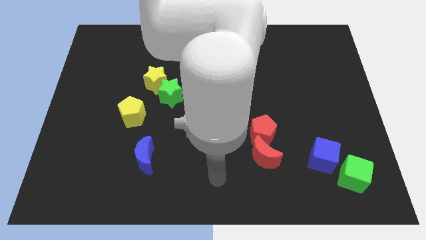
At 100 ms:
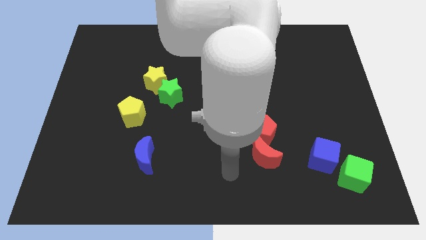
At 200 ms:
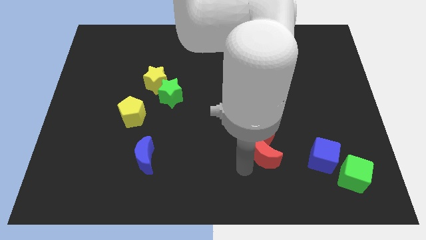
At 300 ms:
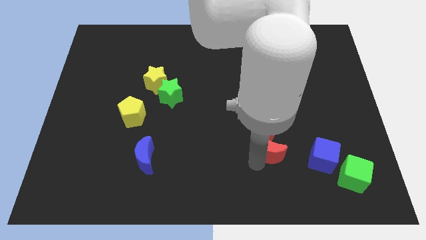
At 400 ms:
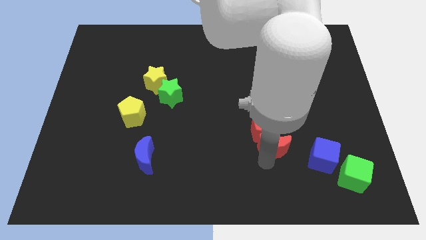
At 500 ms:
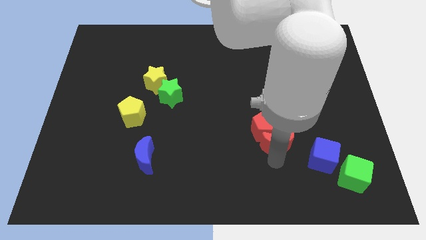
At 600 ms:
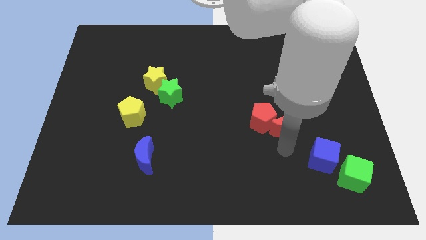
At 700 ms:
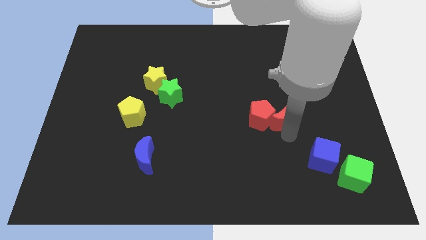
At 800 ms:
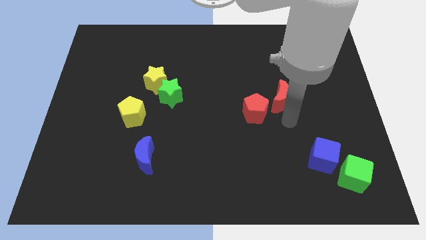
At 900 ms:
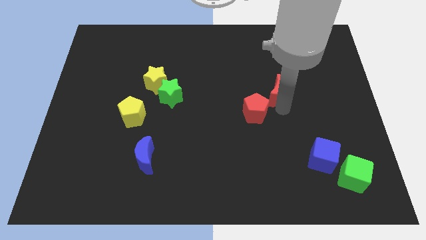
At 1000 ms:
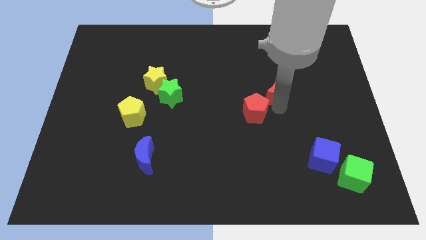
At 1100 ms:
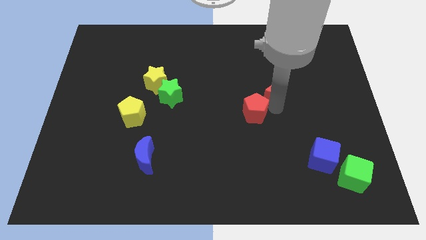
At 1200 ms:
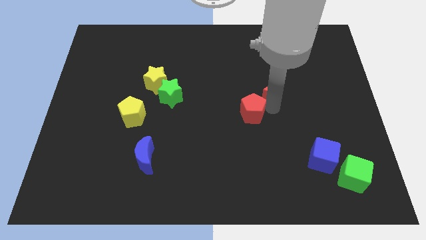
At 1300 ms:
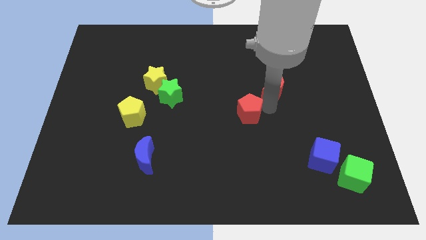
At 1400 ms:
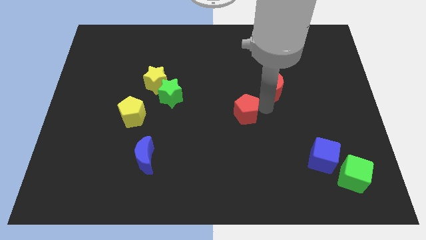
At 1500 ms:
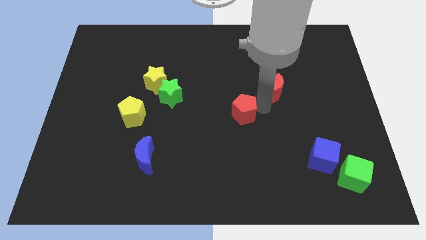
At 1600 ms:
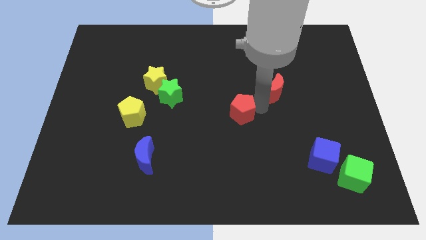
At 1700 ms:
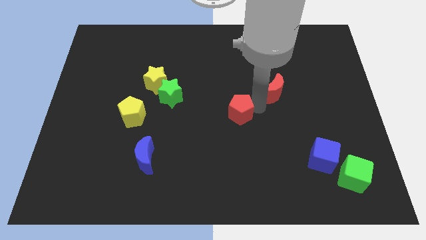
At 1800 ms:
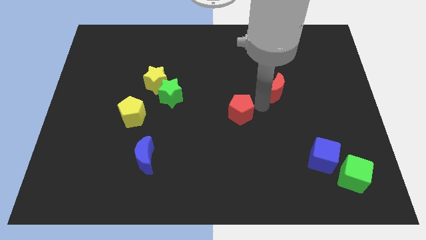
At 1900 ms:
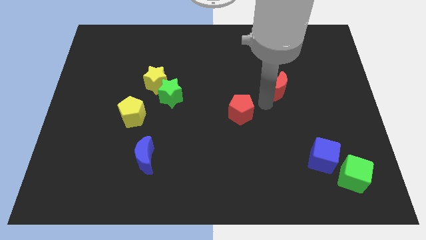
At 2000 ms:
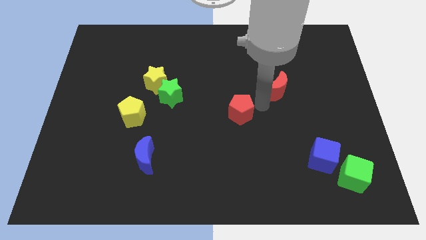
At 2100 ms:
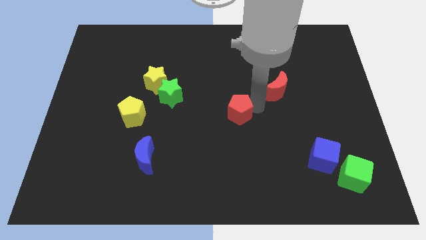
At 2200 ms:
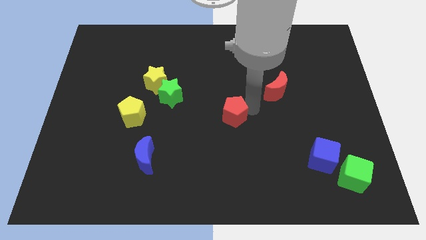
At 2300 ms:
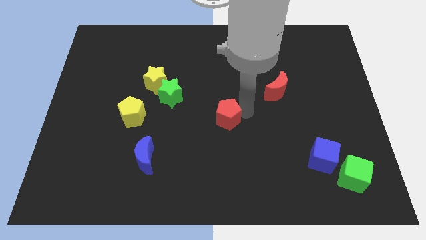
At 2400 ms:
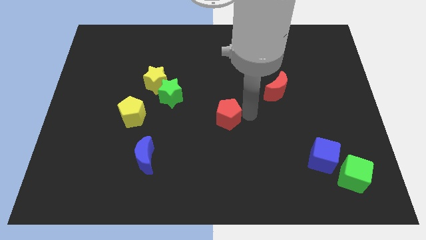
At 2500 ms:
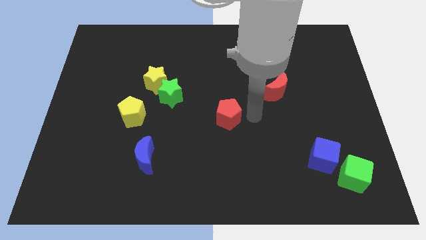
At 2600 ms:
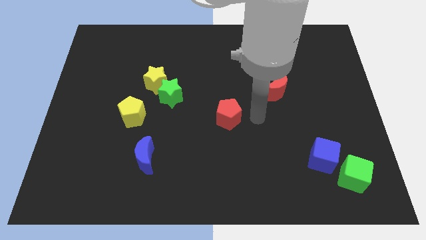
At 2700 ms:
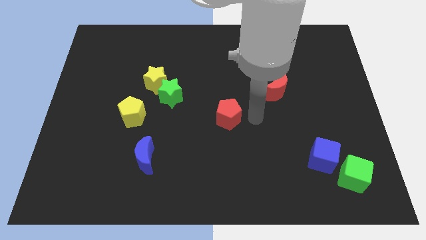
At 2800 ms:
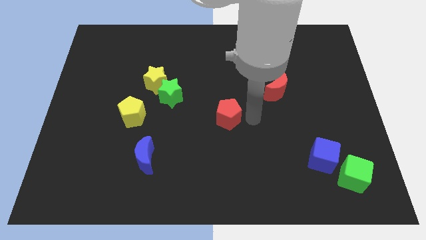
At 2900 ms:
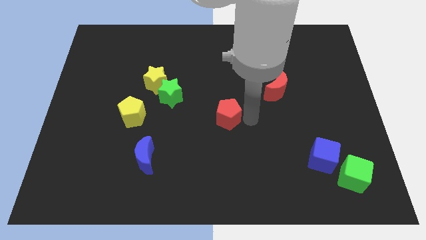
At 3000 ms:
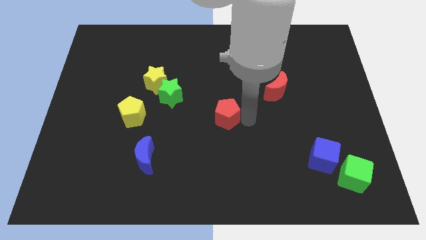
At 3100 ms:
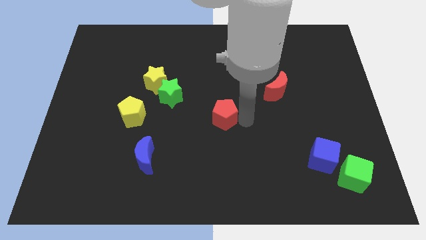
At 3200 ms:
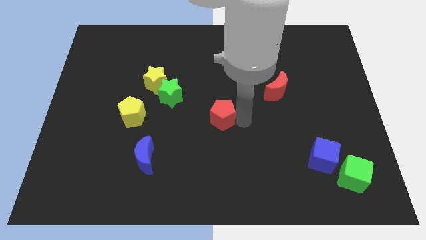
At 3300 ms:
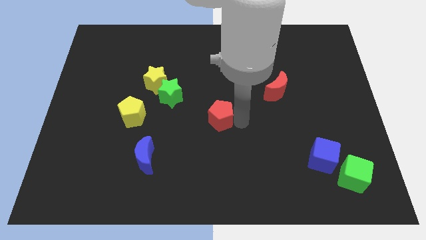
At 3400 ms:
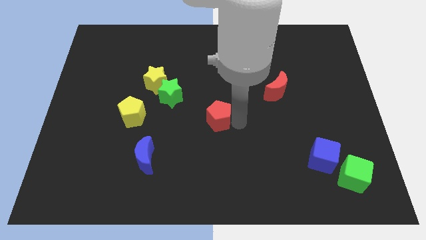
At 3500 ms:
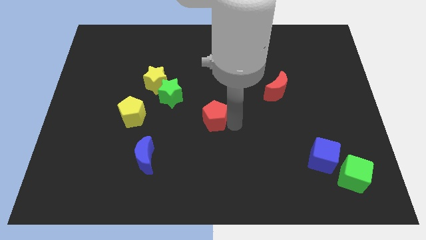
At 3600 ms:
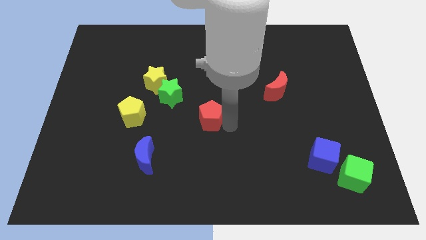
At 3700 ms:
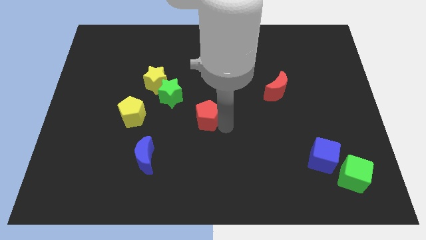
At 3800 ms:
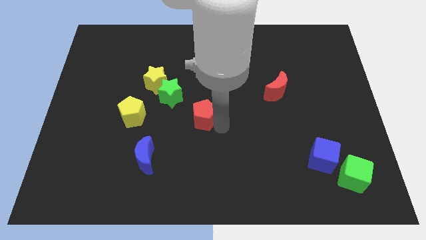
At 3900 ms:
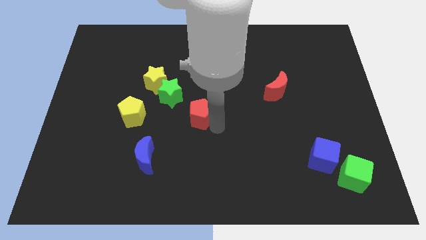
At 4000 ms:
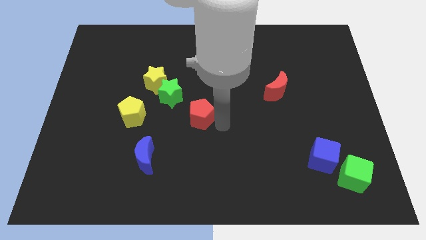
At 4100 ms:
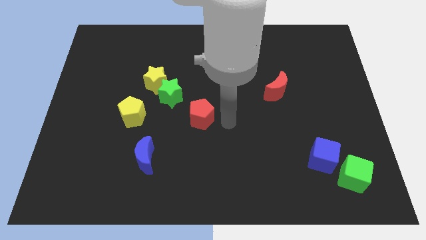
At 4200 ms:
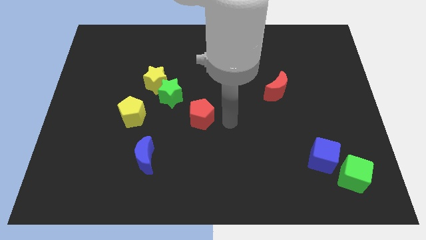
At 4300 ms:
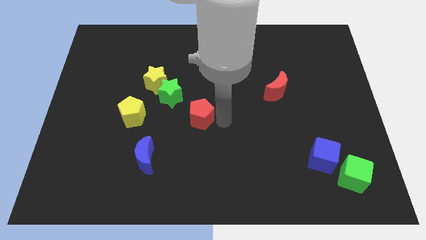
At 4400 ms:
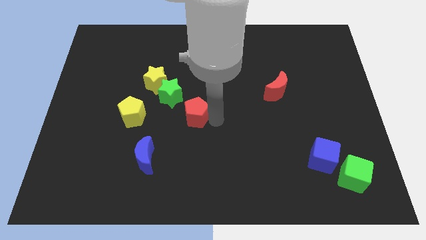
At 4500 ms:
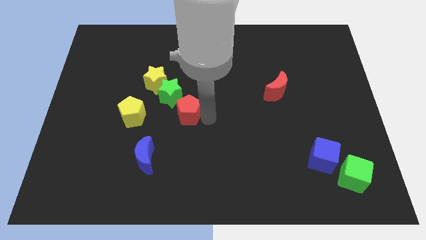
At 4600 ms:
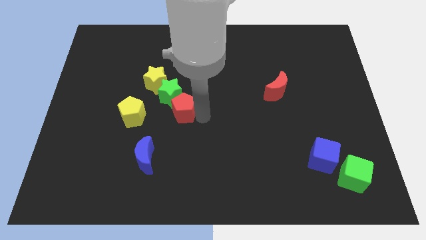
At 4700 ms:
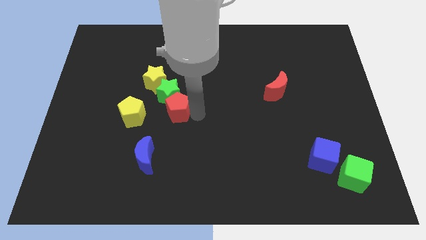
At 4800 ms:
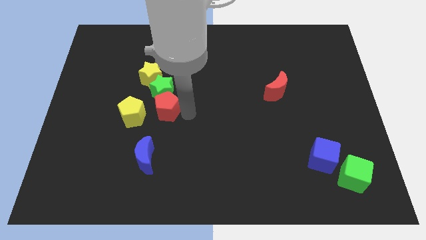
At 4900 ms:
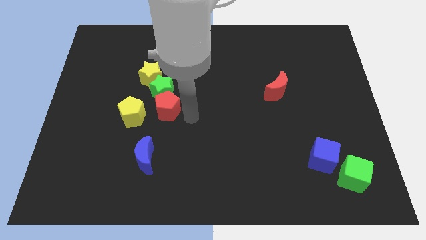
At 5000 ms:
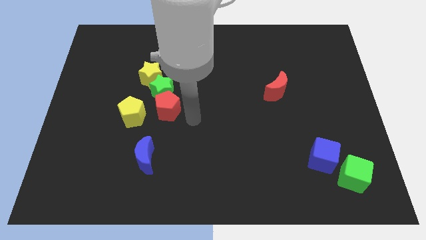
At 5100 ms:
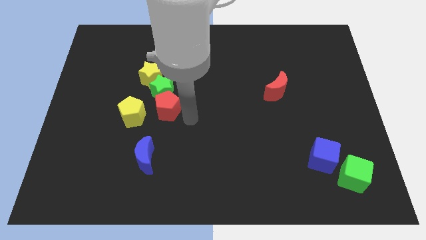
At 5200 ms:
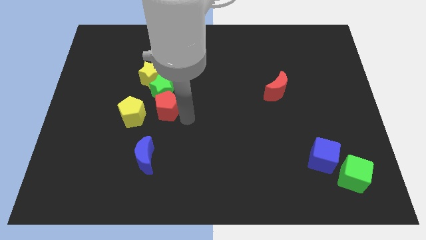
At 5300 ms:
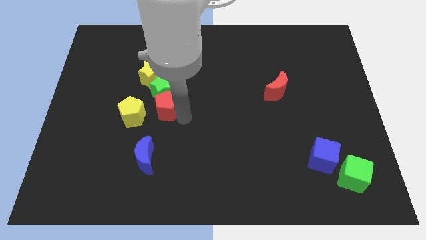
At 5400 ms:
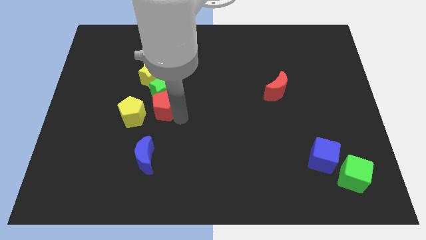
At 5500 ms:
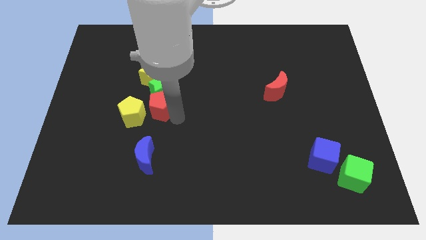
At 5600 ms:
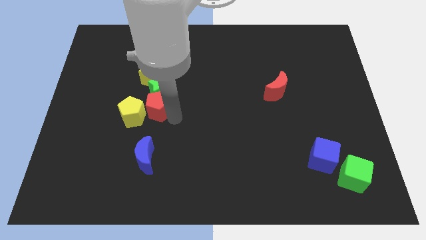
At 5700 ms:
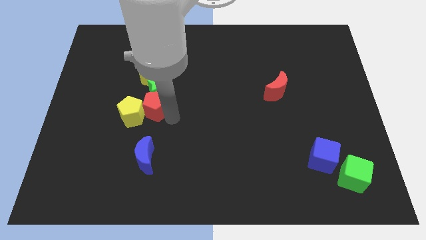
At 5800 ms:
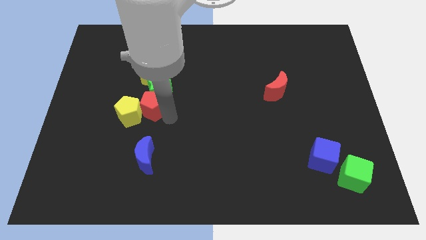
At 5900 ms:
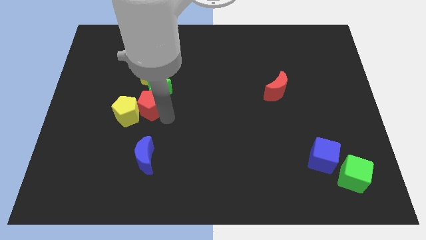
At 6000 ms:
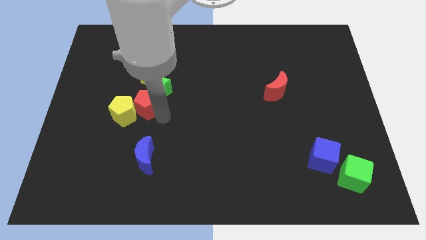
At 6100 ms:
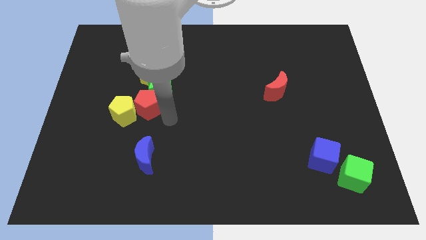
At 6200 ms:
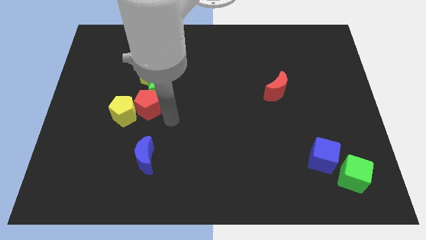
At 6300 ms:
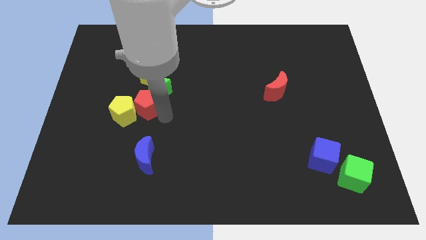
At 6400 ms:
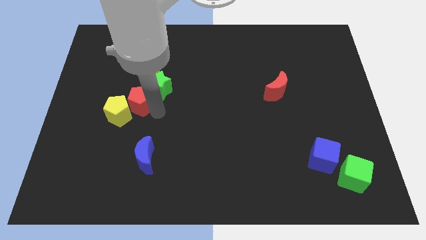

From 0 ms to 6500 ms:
slide the red pentagon to the left of the green star

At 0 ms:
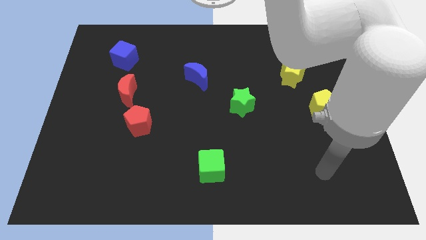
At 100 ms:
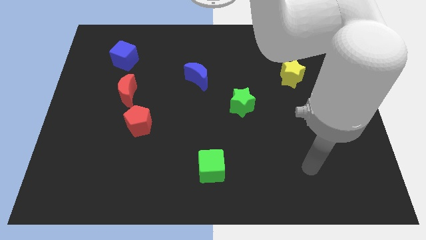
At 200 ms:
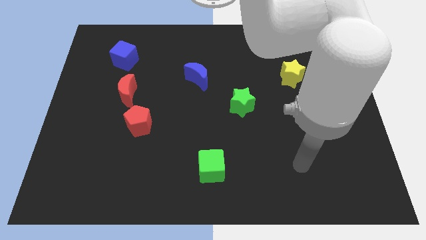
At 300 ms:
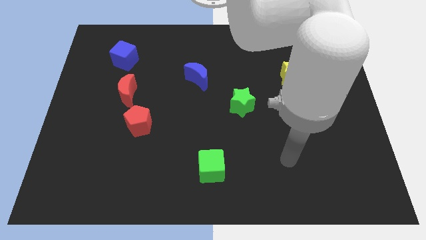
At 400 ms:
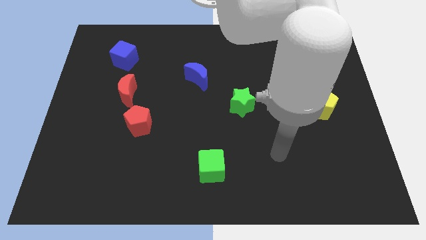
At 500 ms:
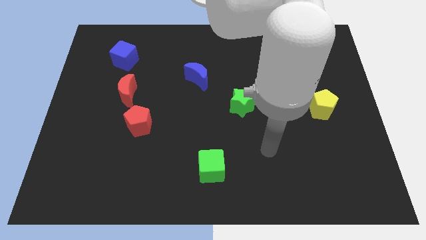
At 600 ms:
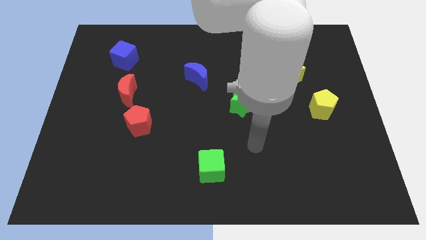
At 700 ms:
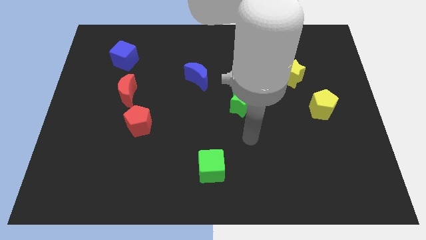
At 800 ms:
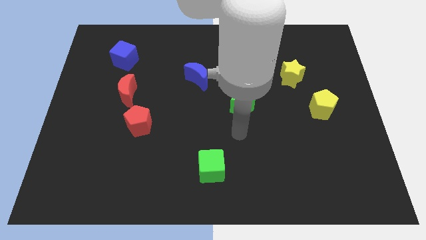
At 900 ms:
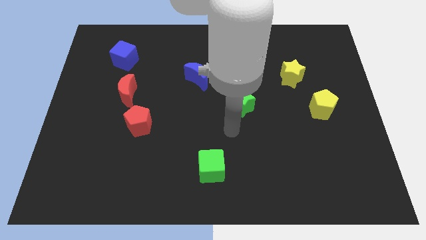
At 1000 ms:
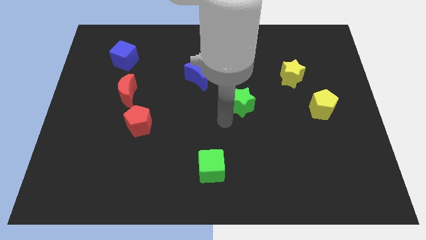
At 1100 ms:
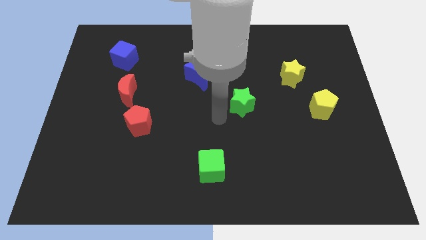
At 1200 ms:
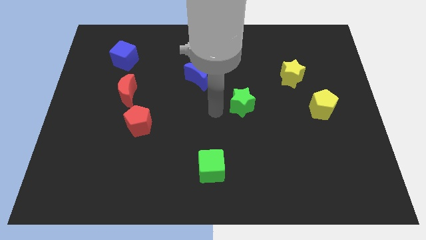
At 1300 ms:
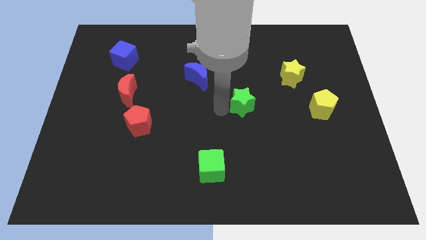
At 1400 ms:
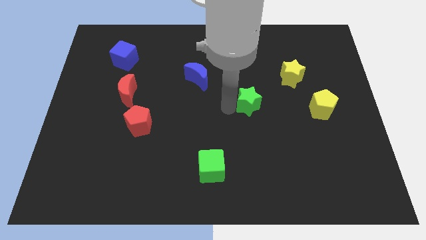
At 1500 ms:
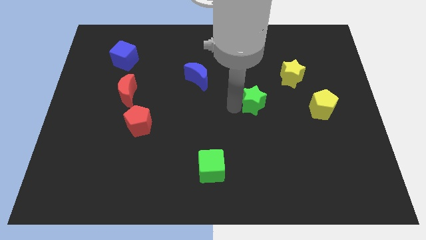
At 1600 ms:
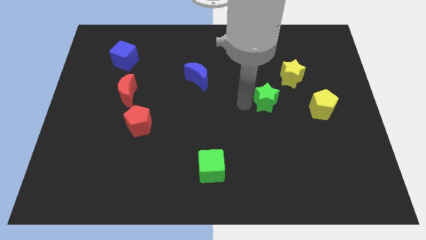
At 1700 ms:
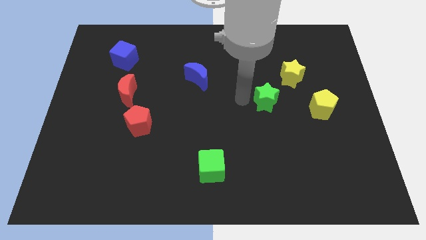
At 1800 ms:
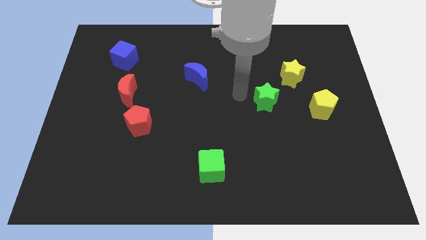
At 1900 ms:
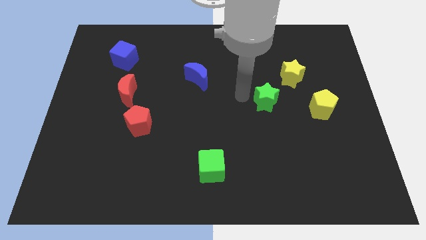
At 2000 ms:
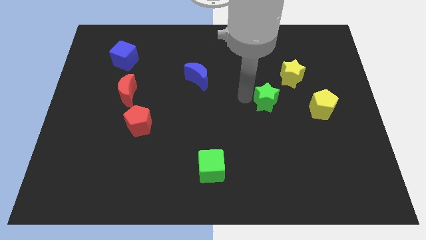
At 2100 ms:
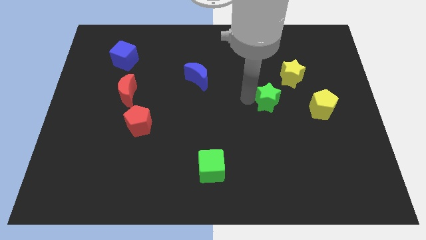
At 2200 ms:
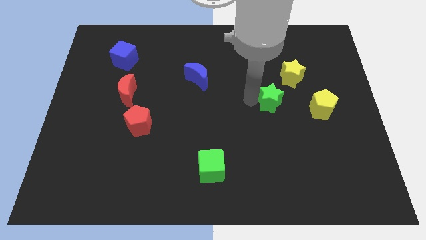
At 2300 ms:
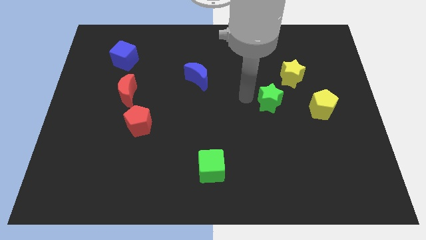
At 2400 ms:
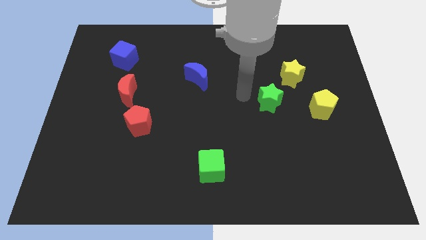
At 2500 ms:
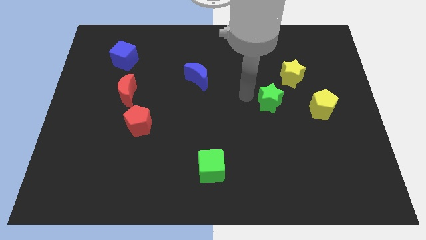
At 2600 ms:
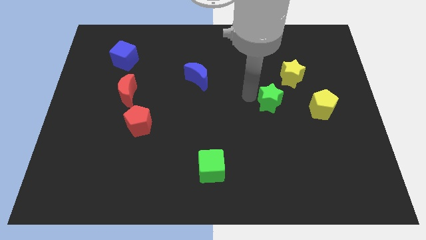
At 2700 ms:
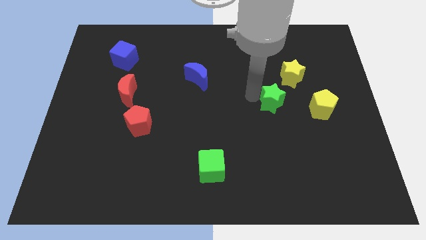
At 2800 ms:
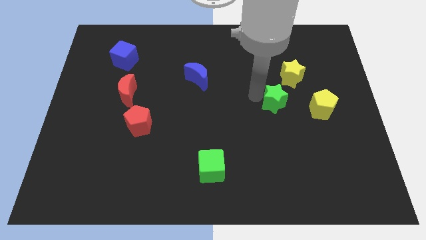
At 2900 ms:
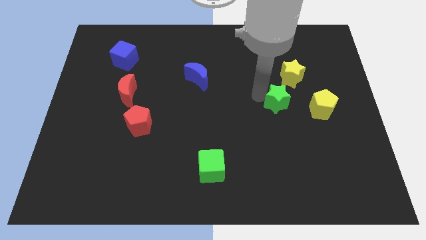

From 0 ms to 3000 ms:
move the green star to the bottom side of the yellow star
